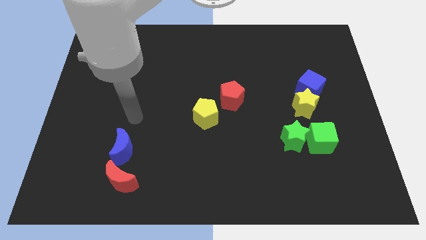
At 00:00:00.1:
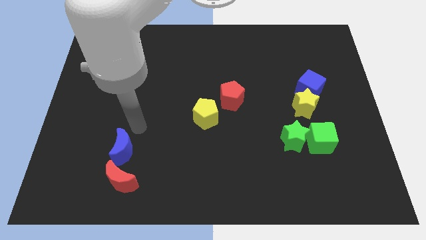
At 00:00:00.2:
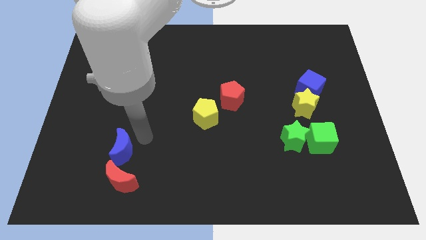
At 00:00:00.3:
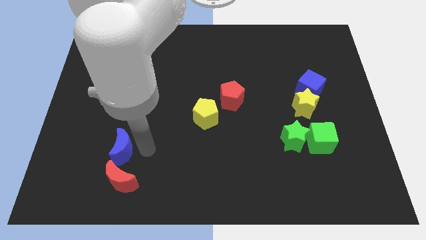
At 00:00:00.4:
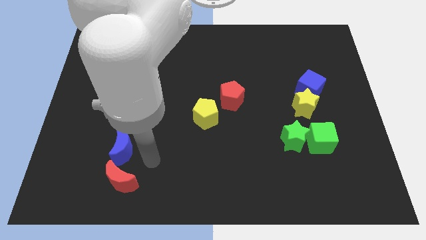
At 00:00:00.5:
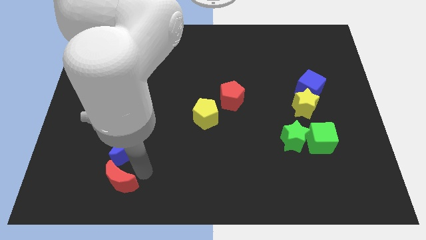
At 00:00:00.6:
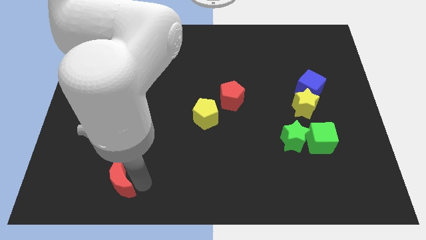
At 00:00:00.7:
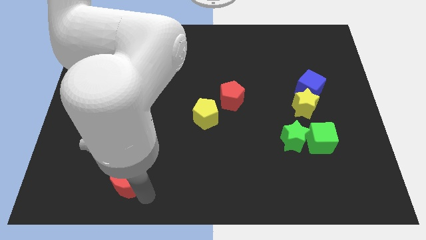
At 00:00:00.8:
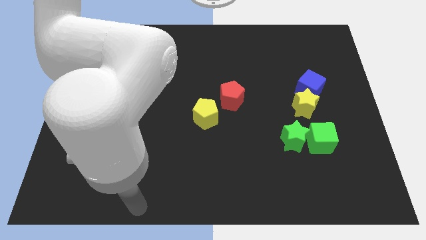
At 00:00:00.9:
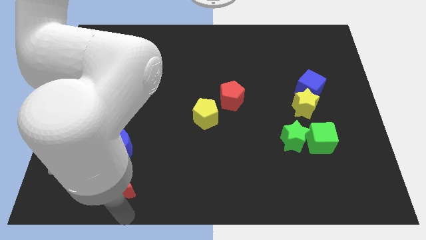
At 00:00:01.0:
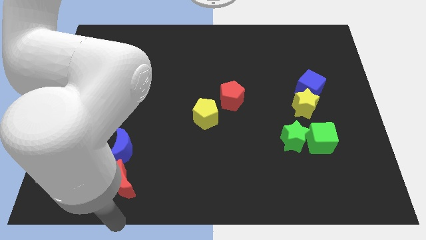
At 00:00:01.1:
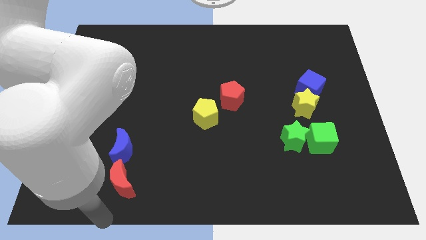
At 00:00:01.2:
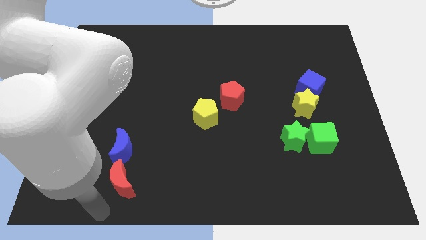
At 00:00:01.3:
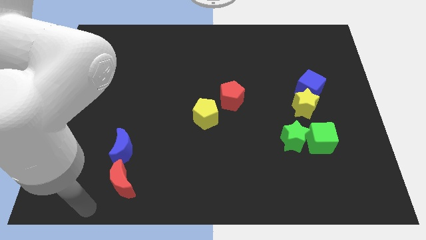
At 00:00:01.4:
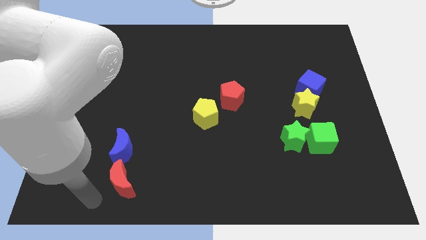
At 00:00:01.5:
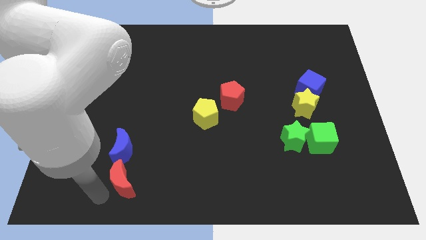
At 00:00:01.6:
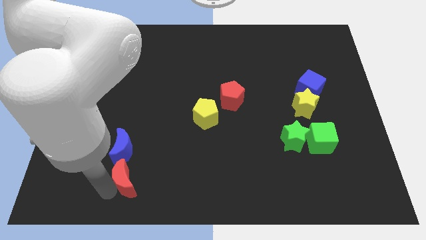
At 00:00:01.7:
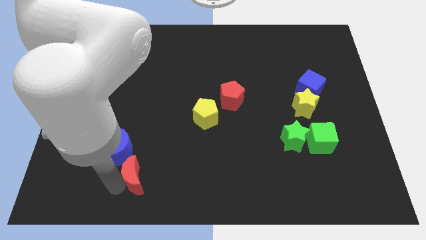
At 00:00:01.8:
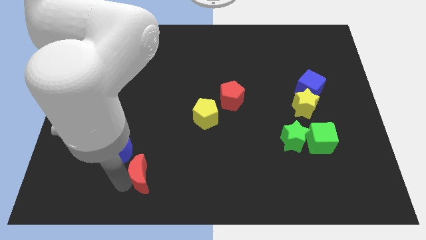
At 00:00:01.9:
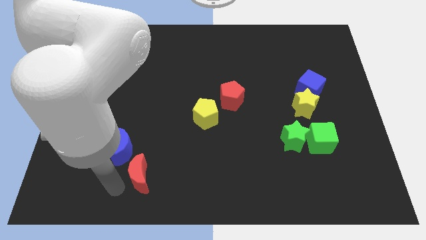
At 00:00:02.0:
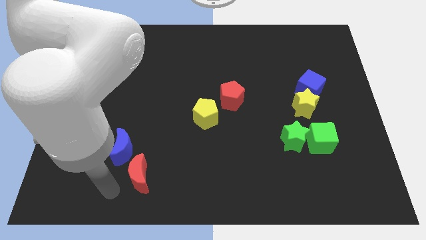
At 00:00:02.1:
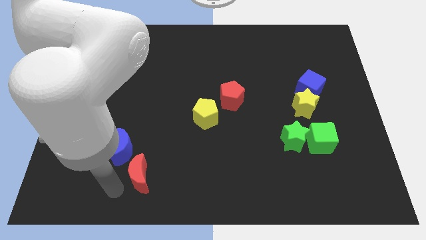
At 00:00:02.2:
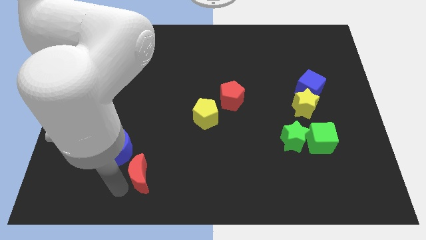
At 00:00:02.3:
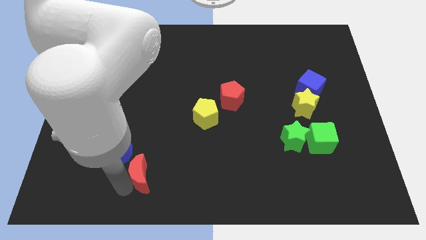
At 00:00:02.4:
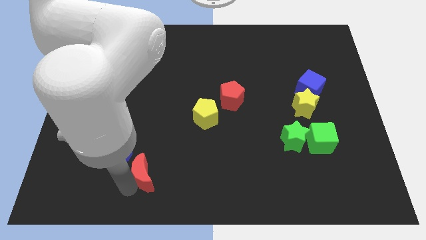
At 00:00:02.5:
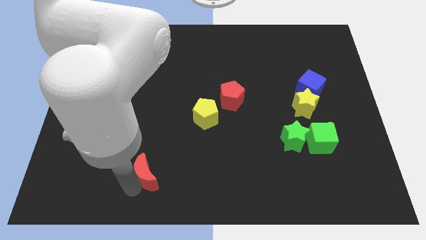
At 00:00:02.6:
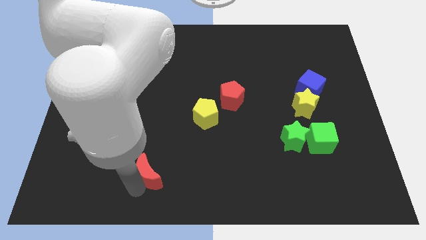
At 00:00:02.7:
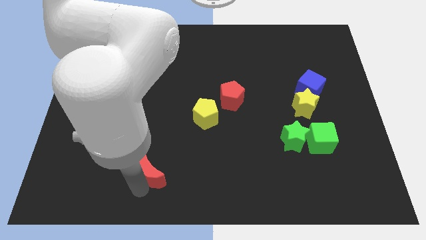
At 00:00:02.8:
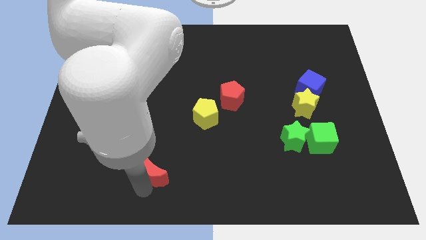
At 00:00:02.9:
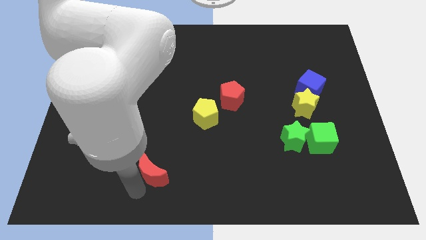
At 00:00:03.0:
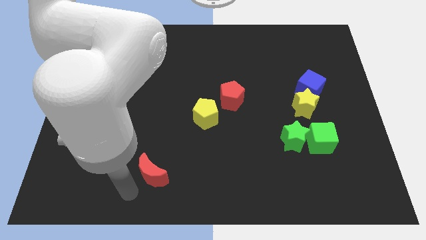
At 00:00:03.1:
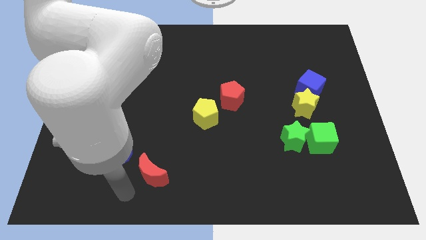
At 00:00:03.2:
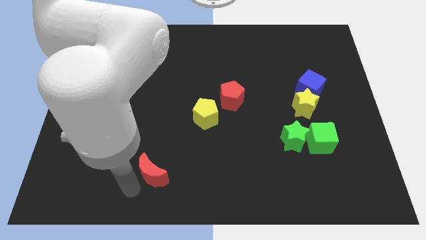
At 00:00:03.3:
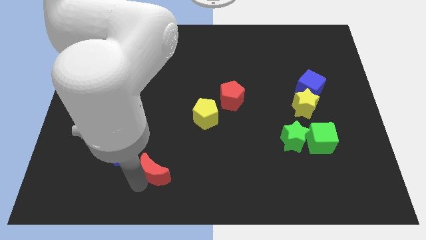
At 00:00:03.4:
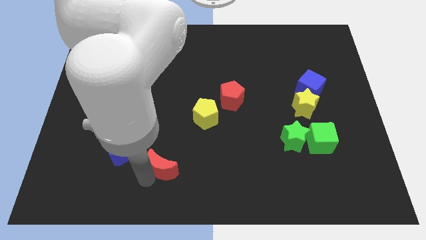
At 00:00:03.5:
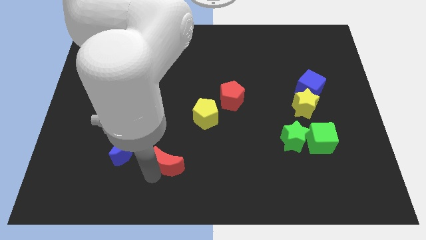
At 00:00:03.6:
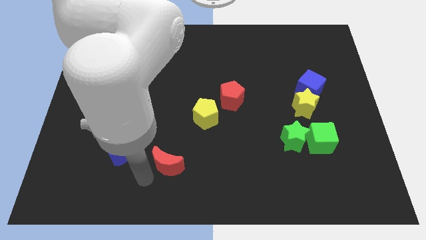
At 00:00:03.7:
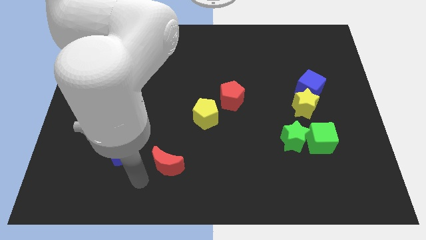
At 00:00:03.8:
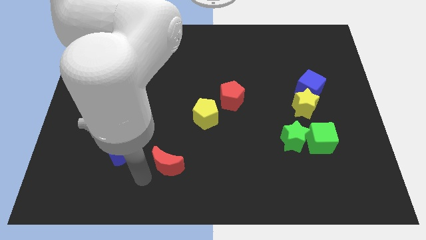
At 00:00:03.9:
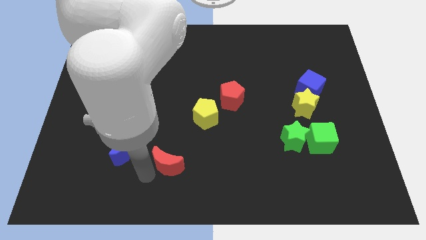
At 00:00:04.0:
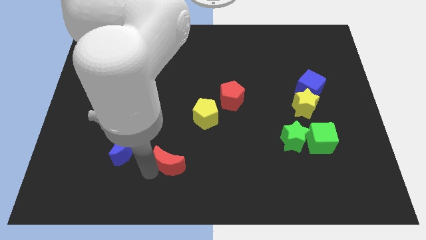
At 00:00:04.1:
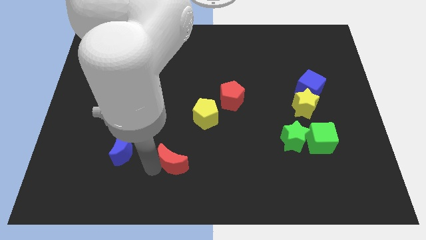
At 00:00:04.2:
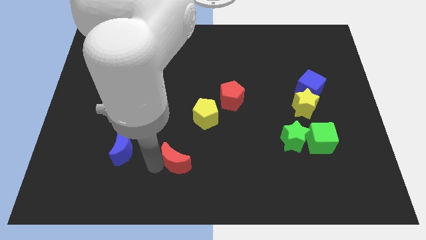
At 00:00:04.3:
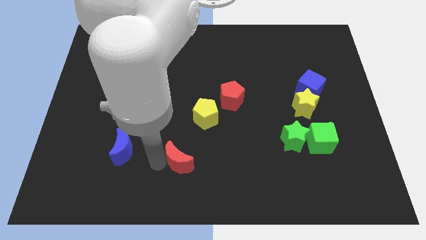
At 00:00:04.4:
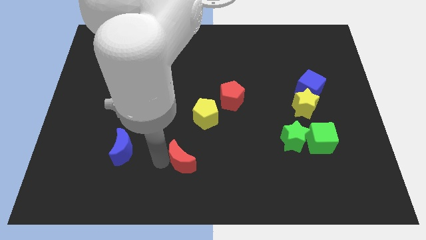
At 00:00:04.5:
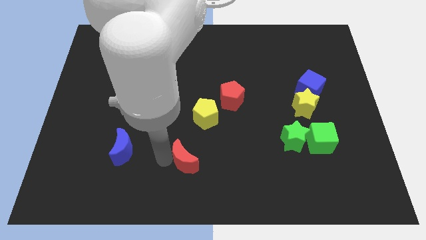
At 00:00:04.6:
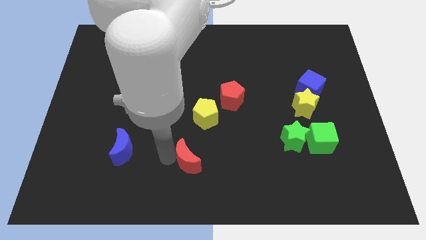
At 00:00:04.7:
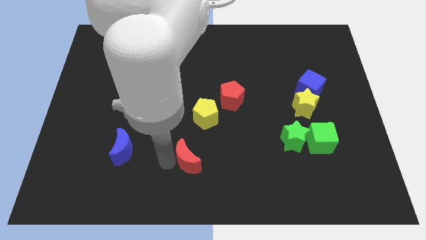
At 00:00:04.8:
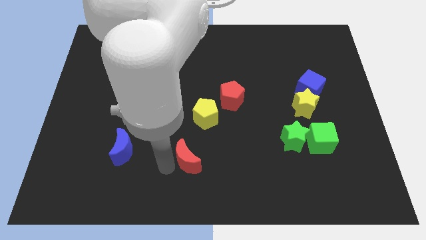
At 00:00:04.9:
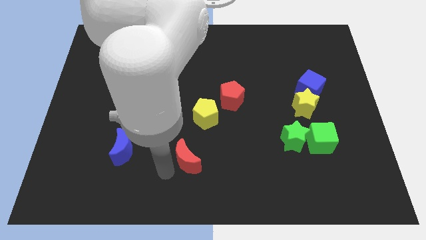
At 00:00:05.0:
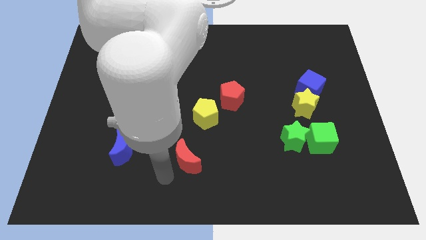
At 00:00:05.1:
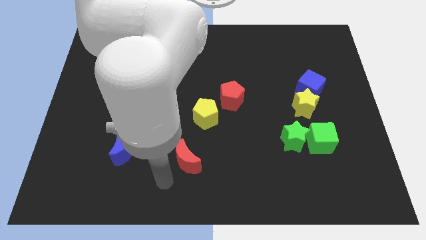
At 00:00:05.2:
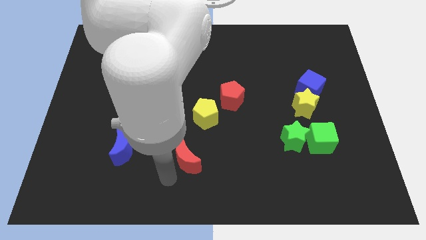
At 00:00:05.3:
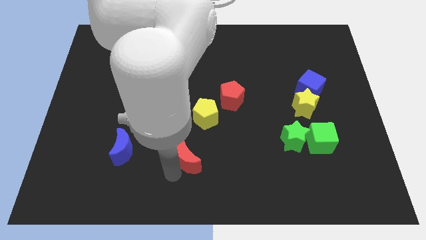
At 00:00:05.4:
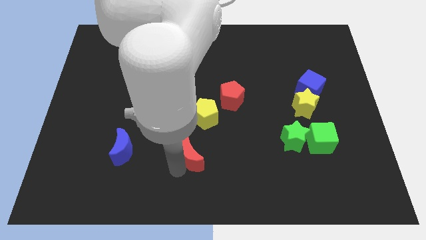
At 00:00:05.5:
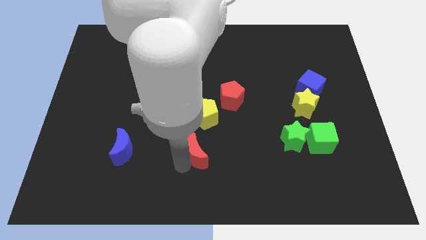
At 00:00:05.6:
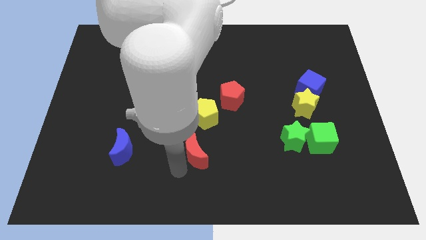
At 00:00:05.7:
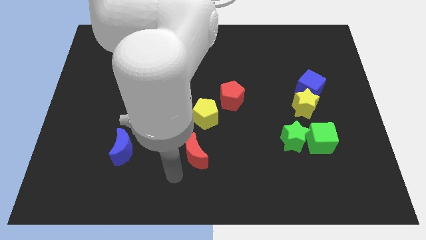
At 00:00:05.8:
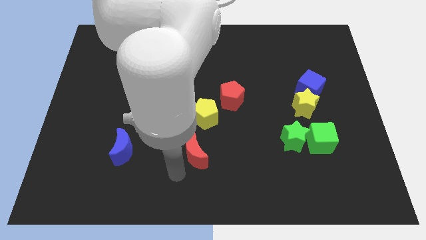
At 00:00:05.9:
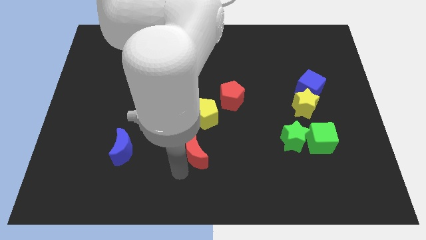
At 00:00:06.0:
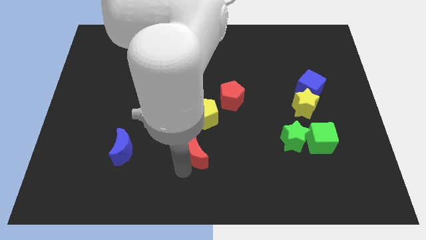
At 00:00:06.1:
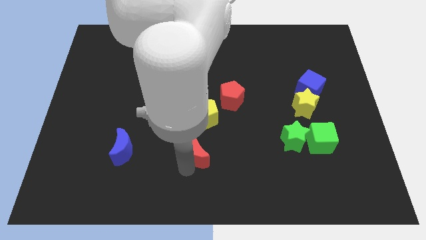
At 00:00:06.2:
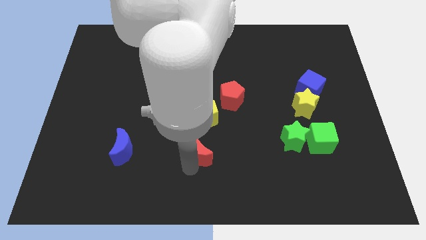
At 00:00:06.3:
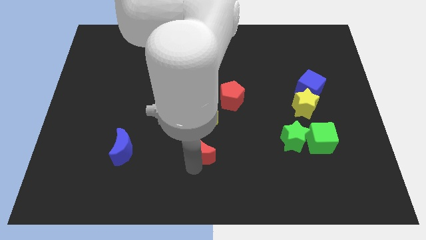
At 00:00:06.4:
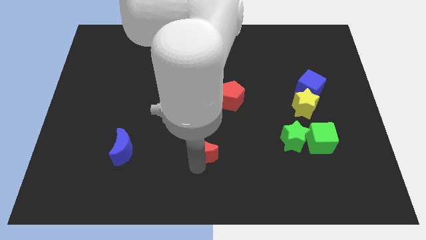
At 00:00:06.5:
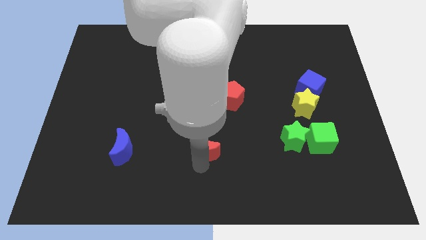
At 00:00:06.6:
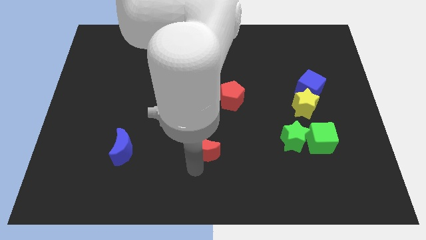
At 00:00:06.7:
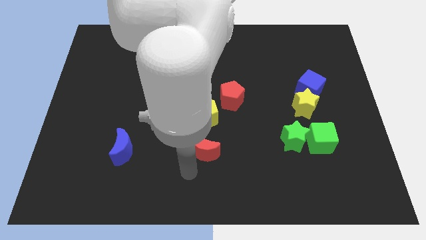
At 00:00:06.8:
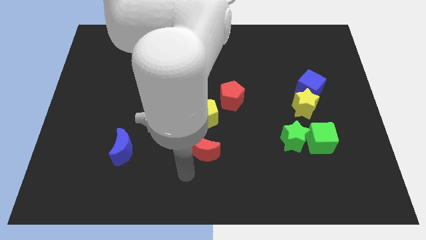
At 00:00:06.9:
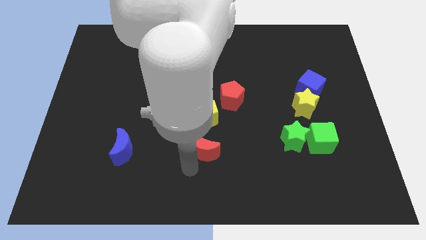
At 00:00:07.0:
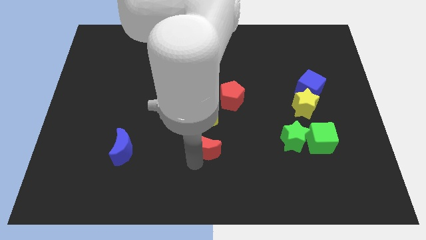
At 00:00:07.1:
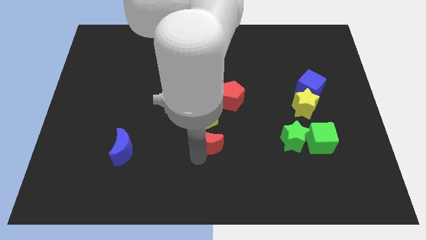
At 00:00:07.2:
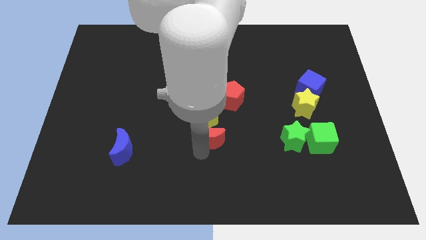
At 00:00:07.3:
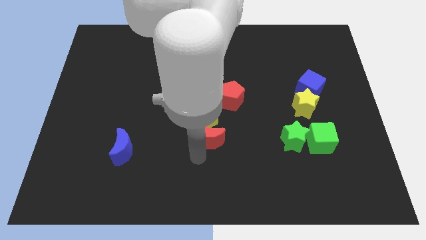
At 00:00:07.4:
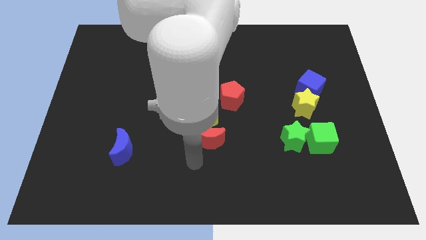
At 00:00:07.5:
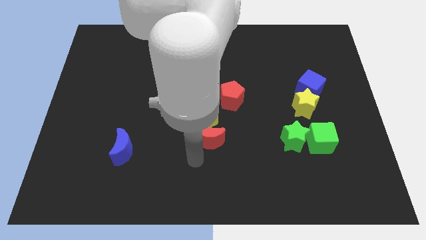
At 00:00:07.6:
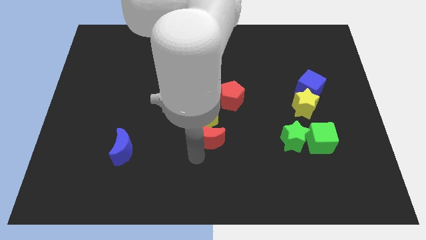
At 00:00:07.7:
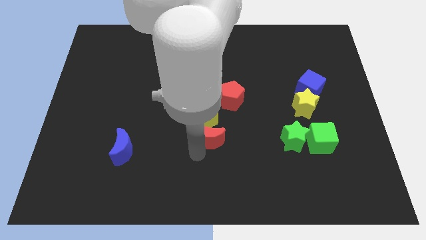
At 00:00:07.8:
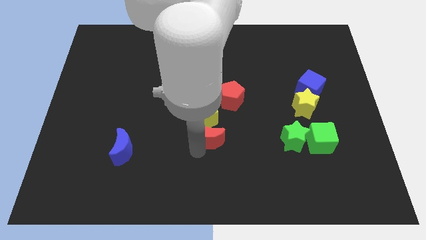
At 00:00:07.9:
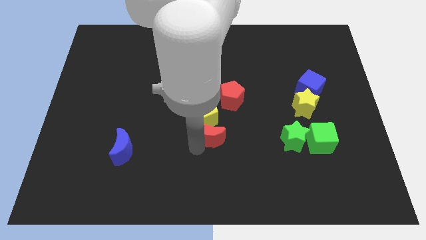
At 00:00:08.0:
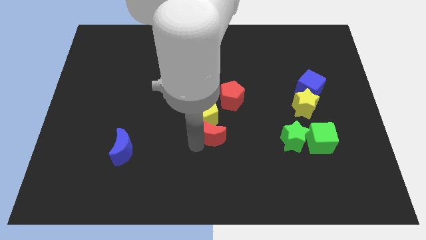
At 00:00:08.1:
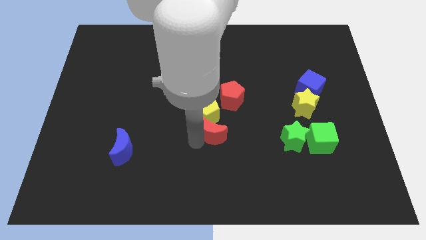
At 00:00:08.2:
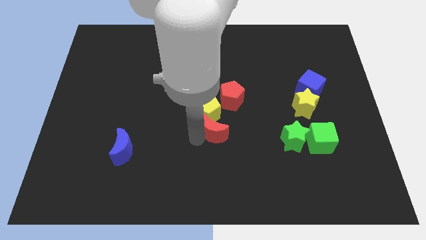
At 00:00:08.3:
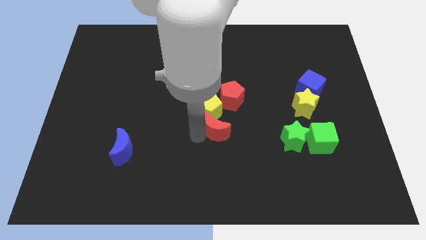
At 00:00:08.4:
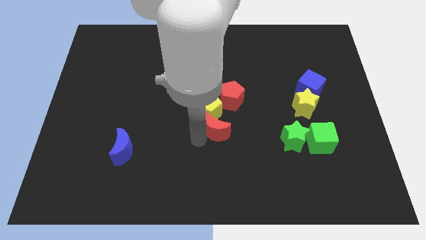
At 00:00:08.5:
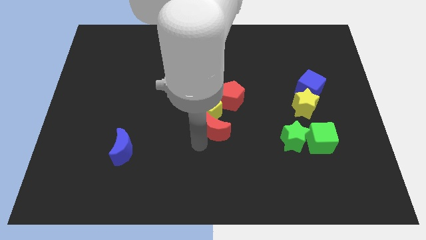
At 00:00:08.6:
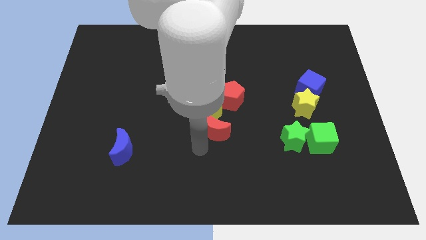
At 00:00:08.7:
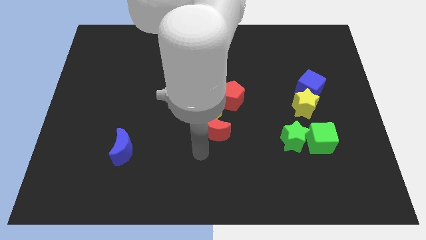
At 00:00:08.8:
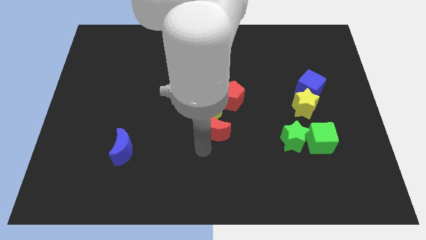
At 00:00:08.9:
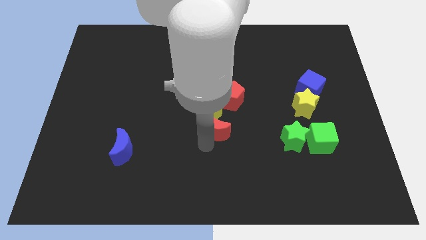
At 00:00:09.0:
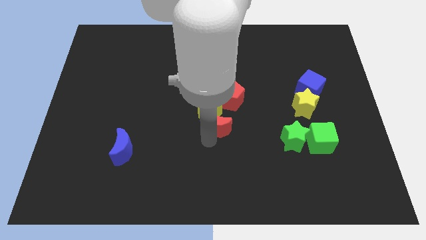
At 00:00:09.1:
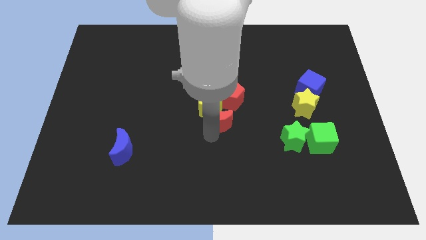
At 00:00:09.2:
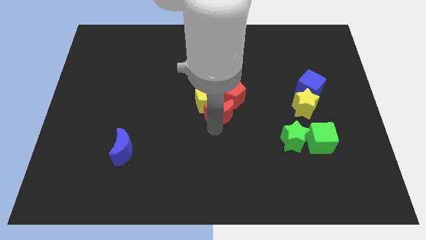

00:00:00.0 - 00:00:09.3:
slide the red moon to the red pentagon
